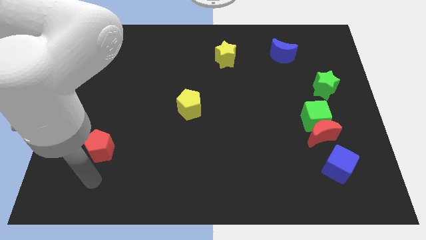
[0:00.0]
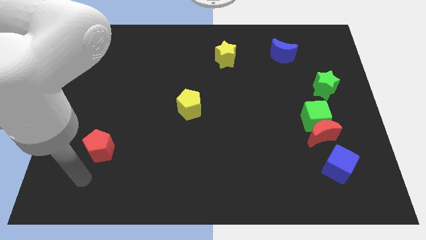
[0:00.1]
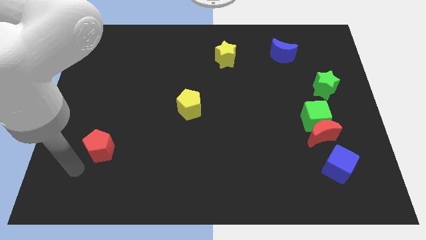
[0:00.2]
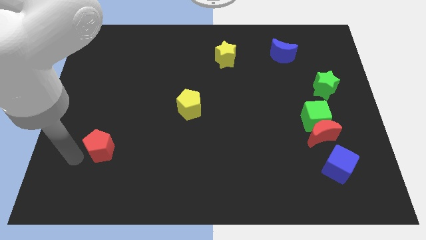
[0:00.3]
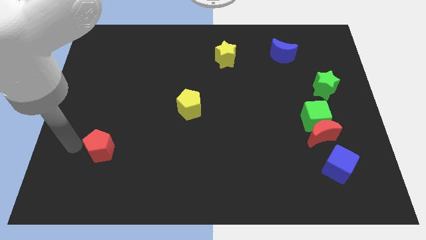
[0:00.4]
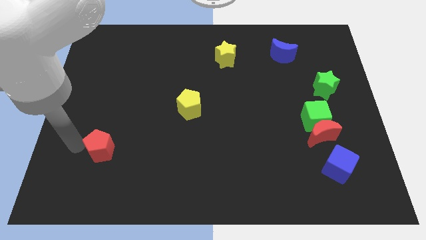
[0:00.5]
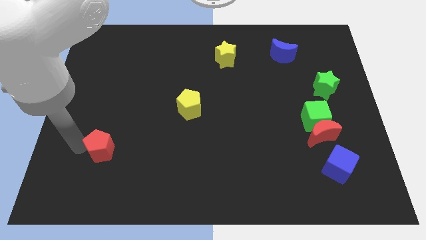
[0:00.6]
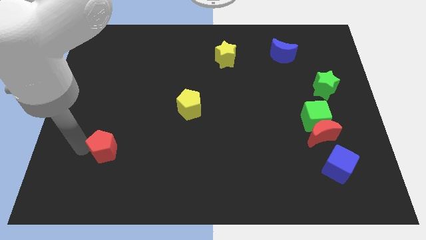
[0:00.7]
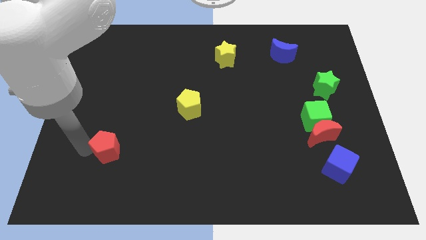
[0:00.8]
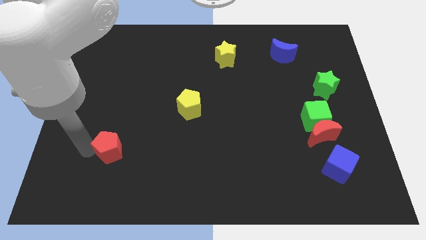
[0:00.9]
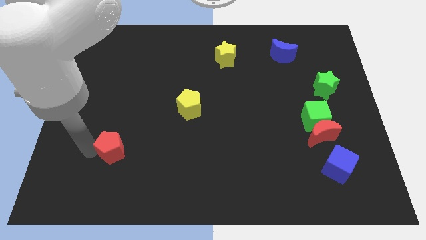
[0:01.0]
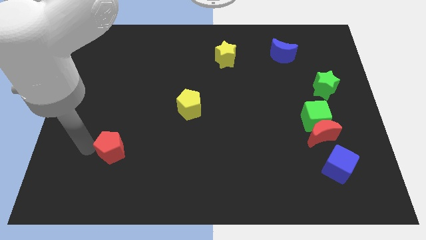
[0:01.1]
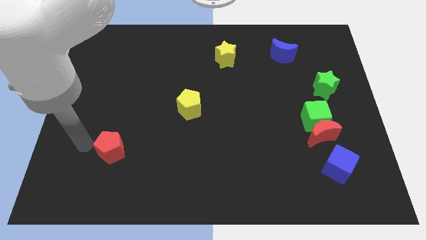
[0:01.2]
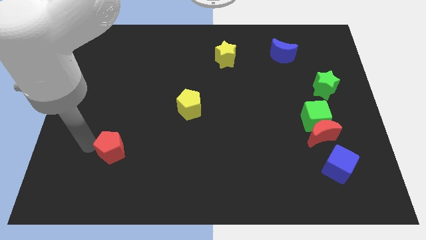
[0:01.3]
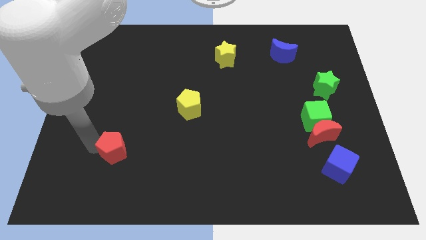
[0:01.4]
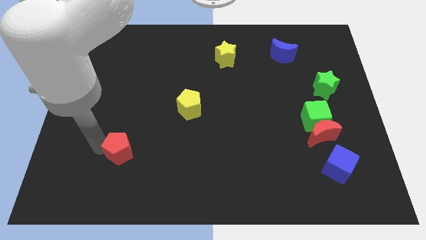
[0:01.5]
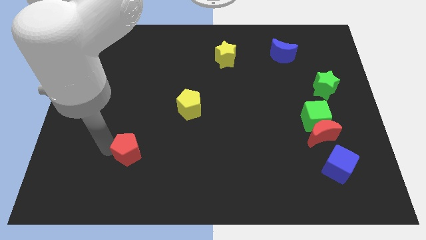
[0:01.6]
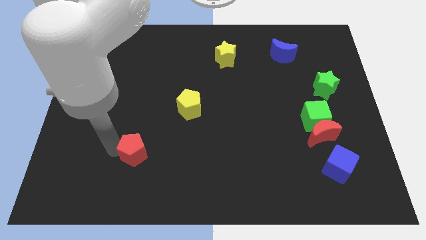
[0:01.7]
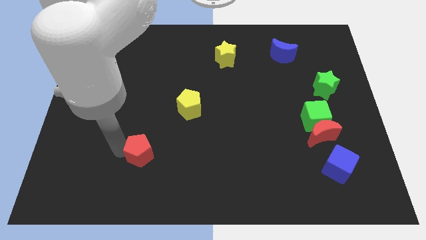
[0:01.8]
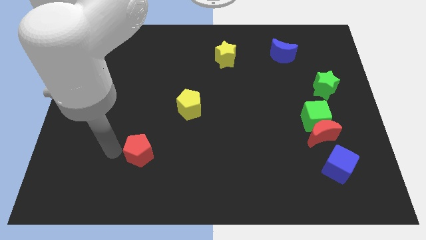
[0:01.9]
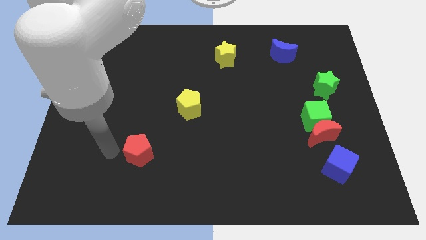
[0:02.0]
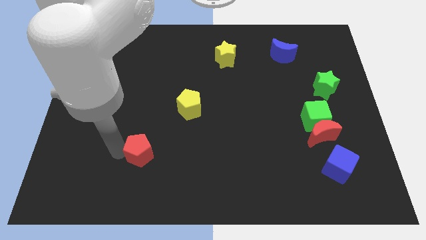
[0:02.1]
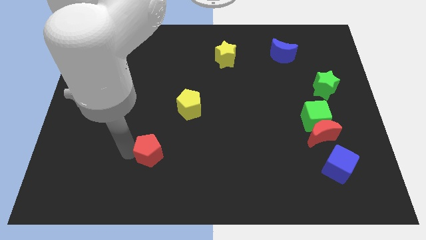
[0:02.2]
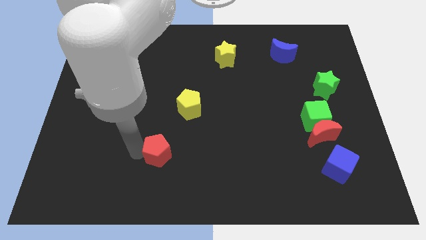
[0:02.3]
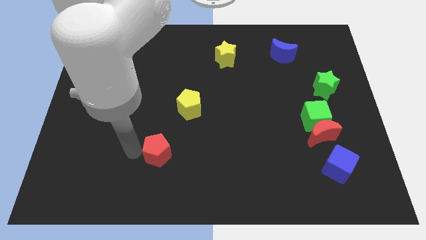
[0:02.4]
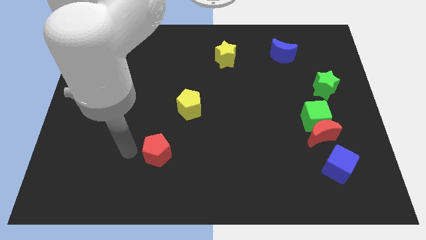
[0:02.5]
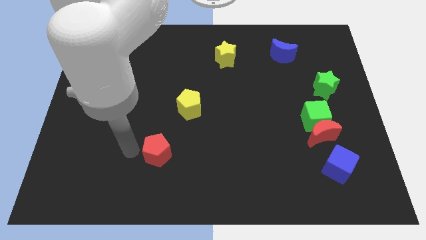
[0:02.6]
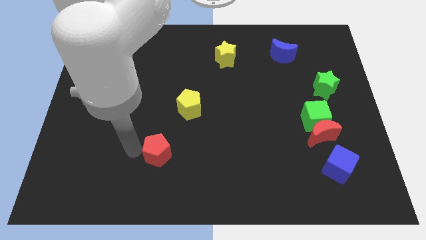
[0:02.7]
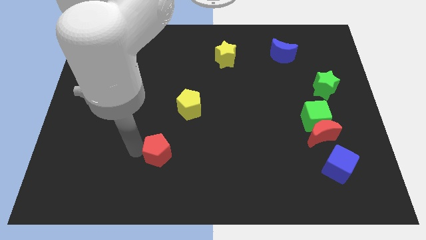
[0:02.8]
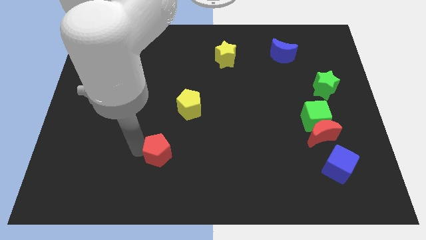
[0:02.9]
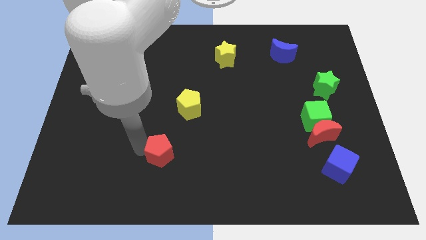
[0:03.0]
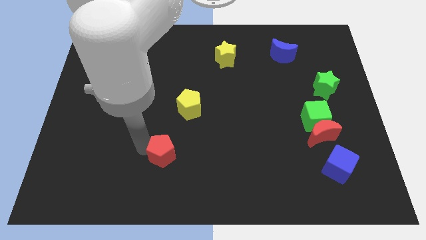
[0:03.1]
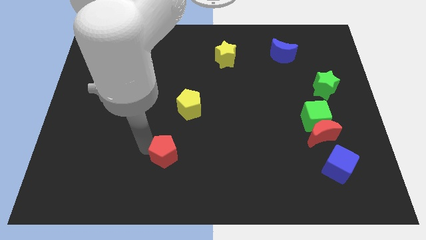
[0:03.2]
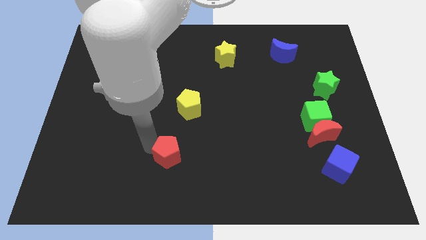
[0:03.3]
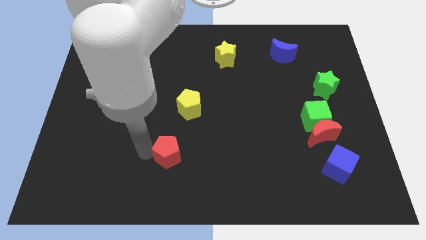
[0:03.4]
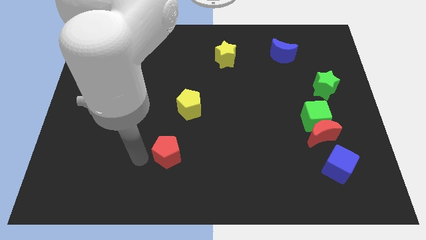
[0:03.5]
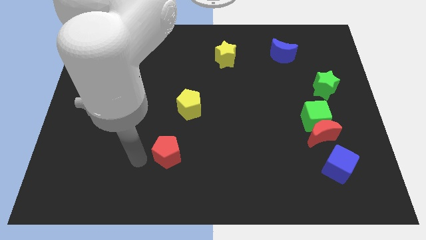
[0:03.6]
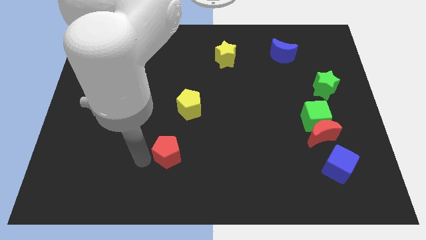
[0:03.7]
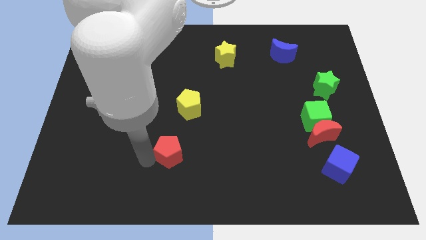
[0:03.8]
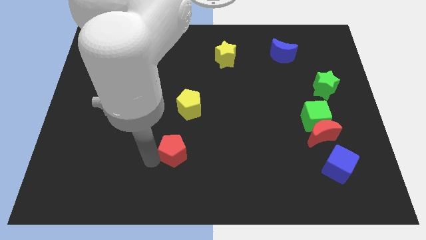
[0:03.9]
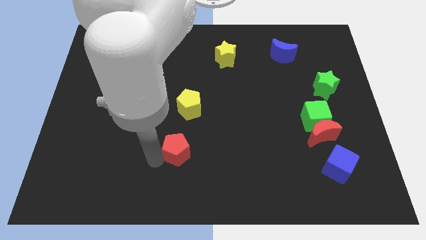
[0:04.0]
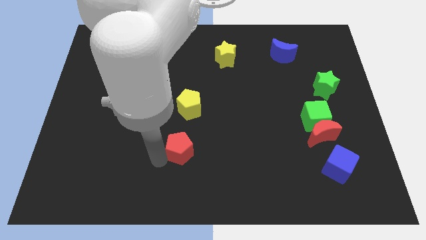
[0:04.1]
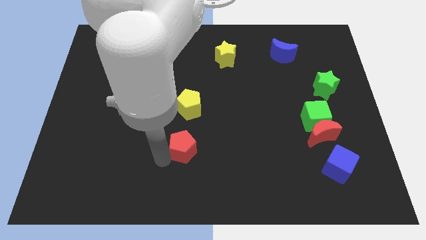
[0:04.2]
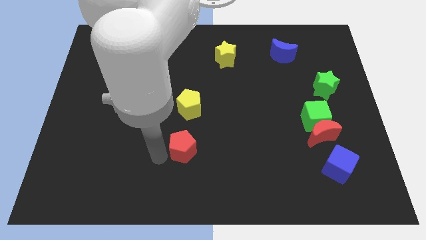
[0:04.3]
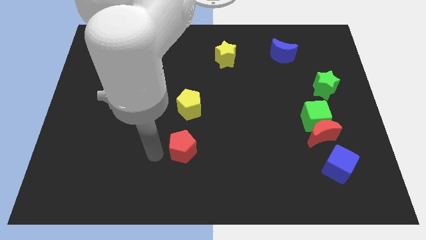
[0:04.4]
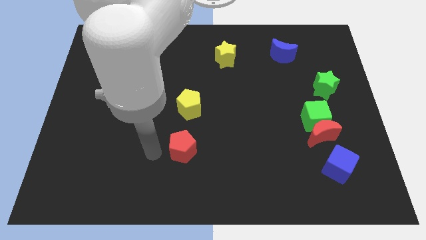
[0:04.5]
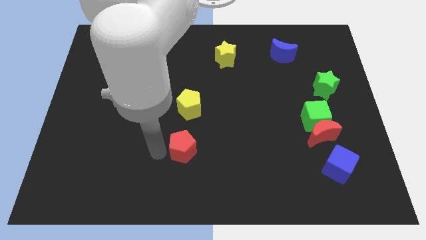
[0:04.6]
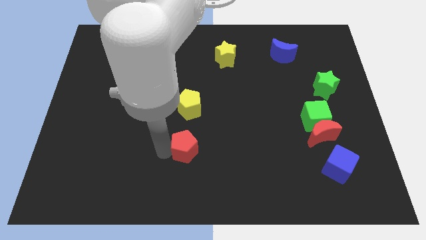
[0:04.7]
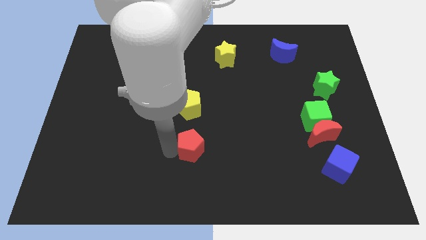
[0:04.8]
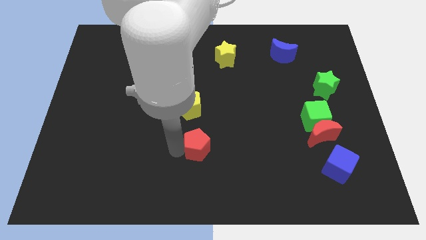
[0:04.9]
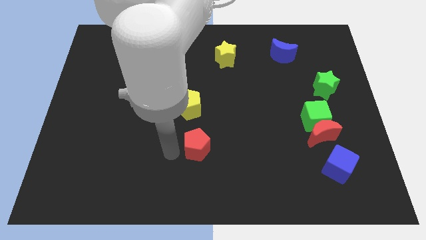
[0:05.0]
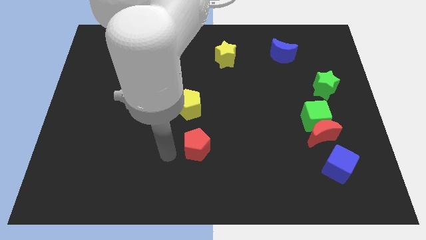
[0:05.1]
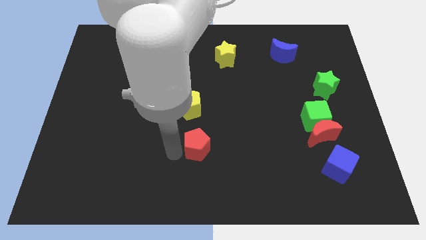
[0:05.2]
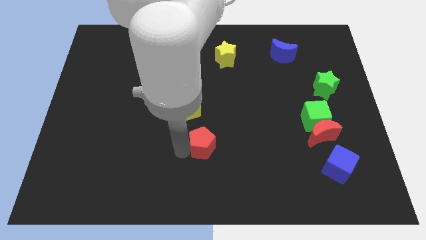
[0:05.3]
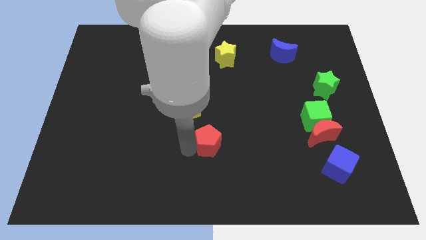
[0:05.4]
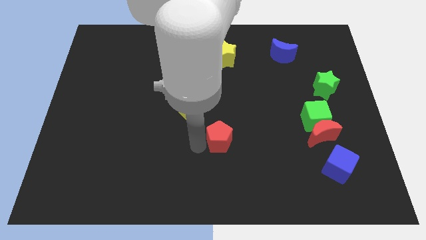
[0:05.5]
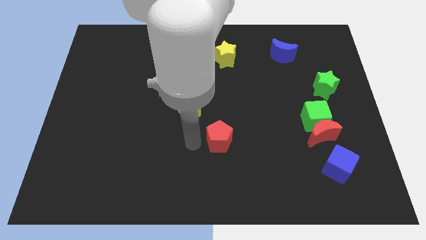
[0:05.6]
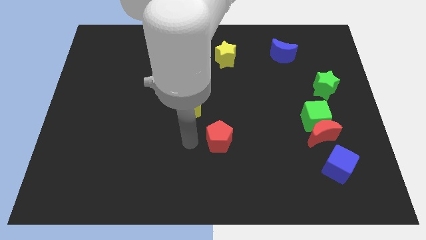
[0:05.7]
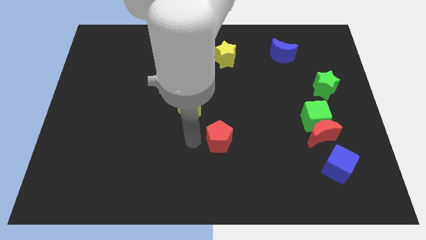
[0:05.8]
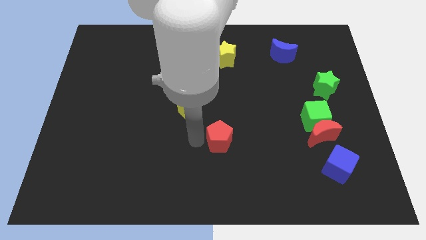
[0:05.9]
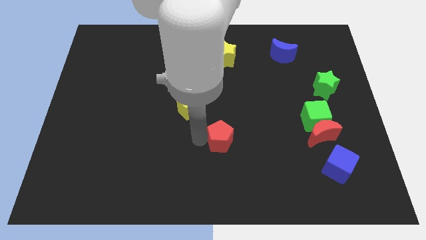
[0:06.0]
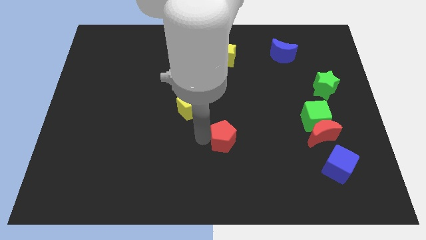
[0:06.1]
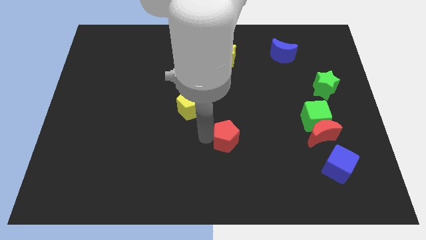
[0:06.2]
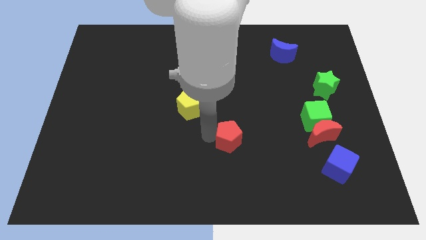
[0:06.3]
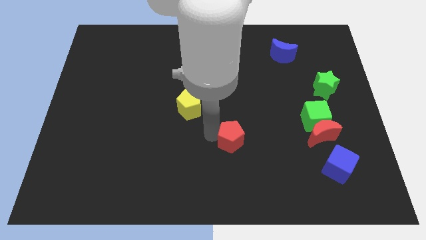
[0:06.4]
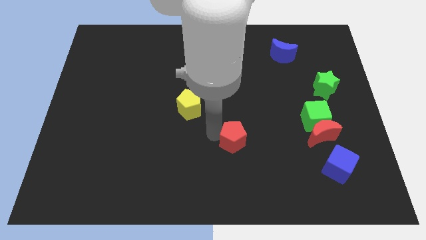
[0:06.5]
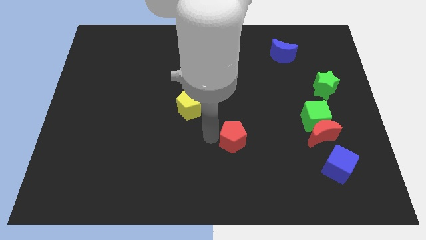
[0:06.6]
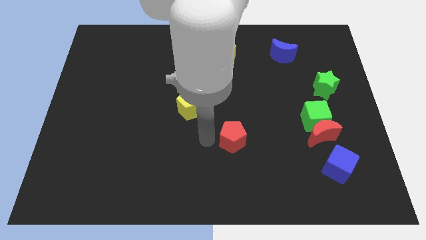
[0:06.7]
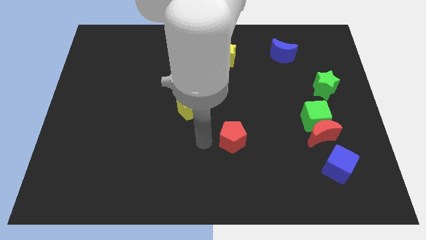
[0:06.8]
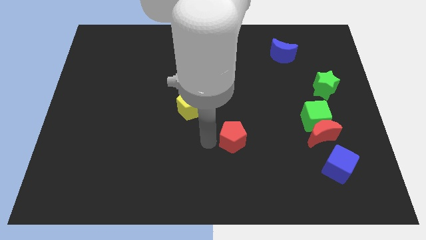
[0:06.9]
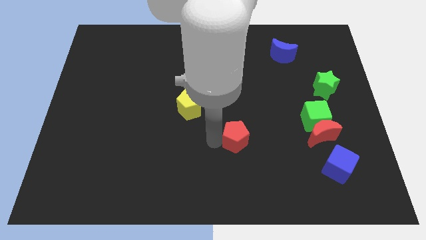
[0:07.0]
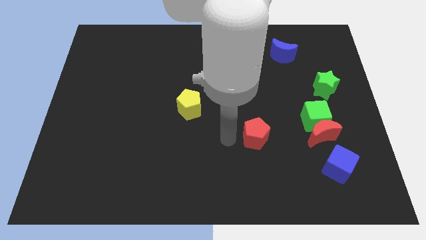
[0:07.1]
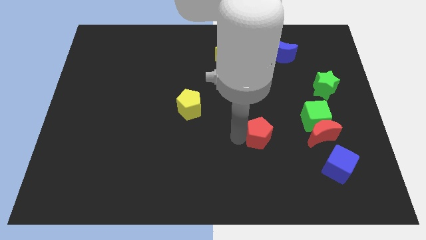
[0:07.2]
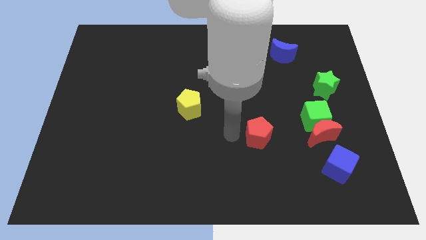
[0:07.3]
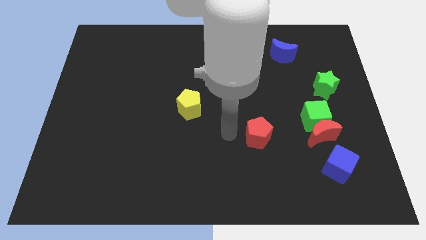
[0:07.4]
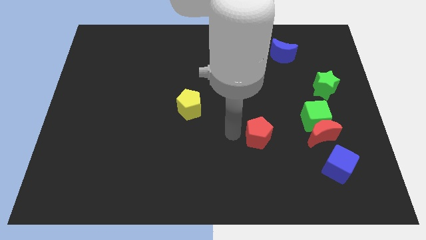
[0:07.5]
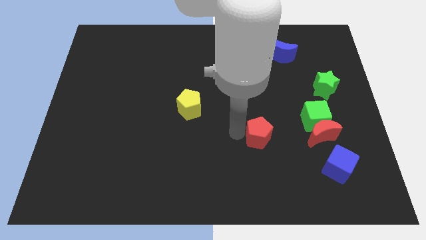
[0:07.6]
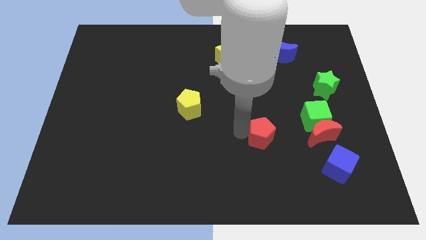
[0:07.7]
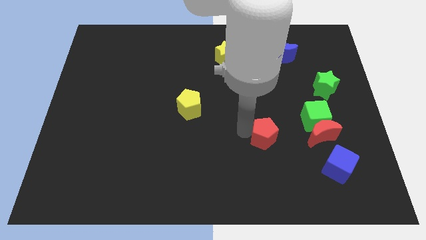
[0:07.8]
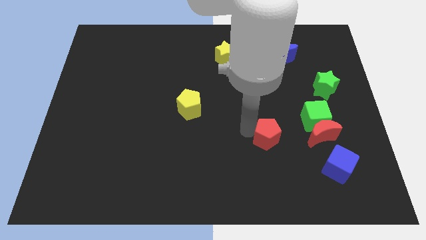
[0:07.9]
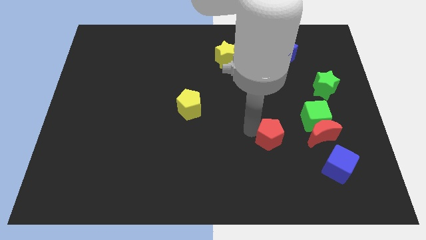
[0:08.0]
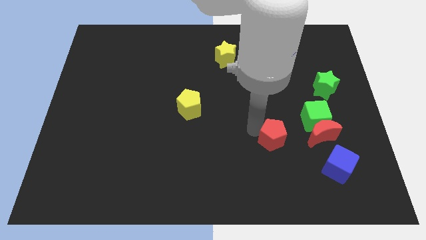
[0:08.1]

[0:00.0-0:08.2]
put the red pentagon to the bottom left of the green cube

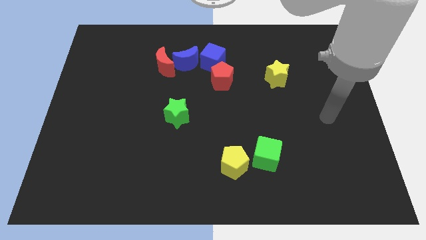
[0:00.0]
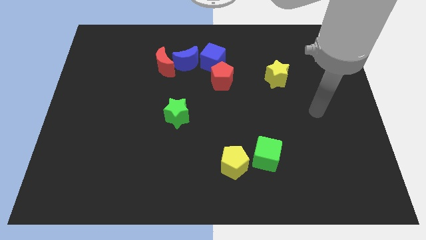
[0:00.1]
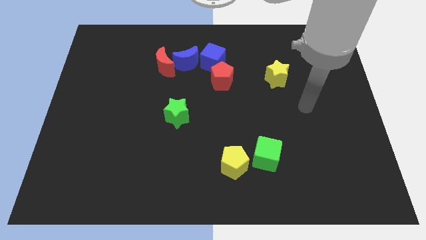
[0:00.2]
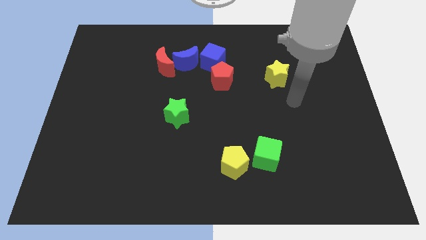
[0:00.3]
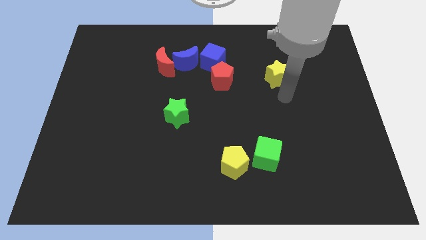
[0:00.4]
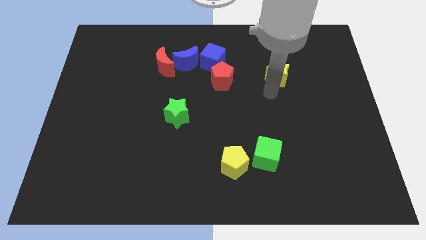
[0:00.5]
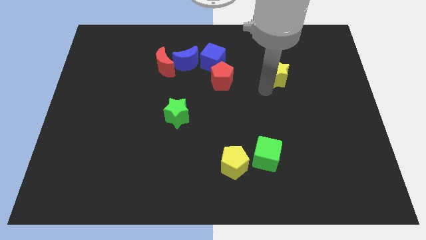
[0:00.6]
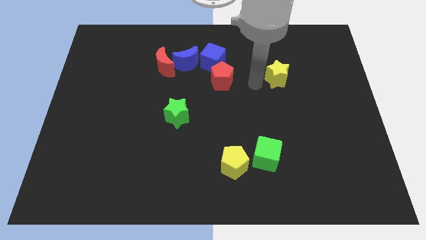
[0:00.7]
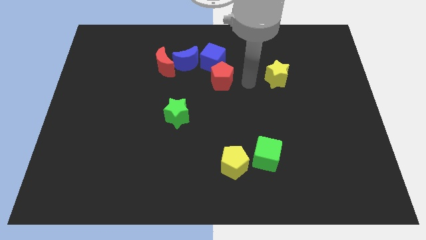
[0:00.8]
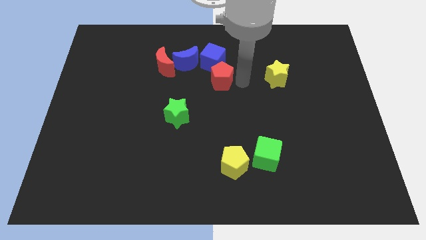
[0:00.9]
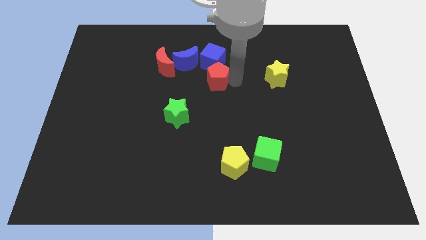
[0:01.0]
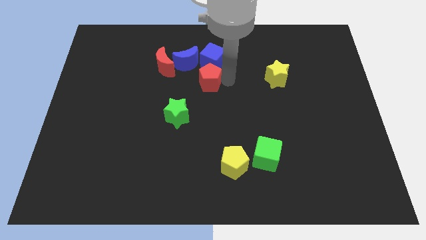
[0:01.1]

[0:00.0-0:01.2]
move the red pentagon diagonally down and to the left of the blue cube
